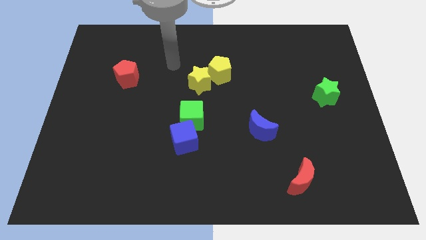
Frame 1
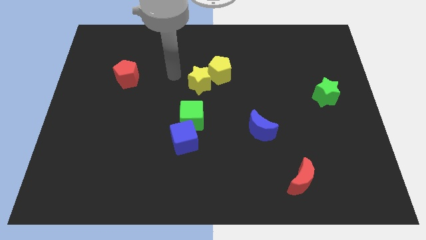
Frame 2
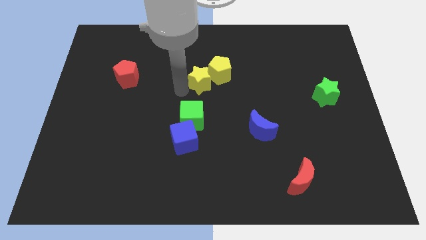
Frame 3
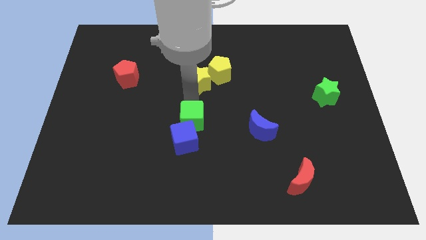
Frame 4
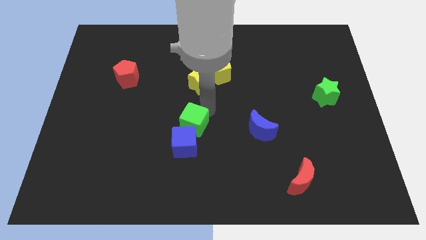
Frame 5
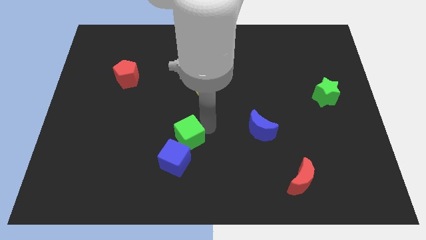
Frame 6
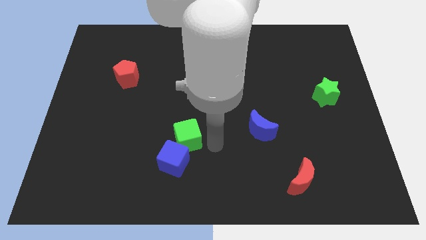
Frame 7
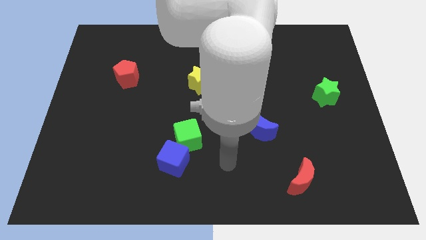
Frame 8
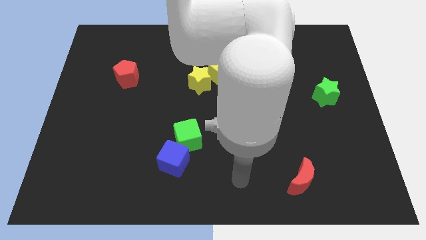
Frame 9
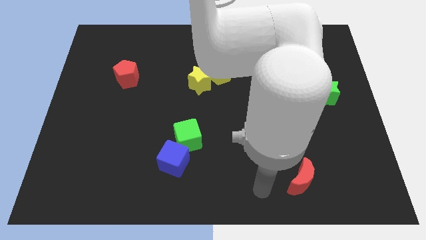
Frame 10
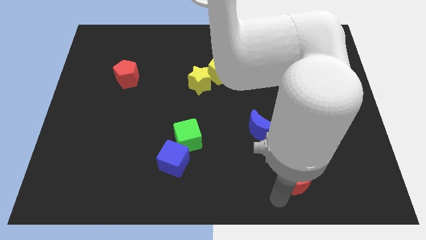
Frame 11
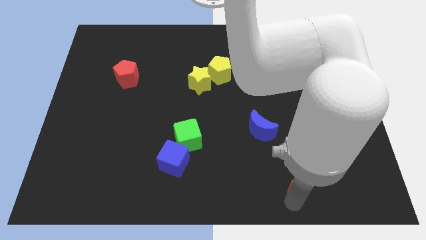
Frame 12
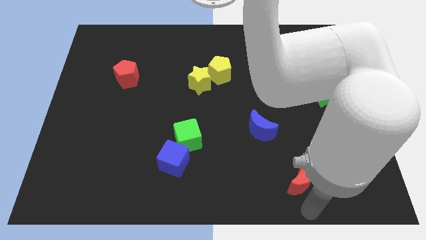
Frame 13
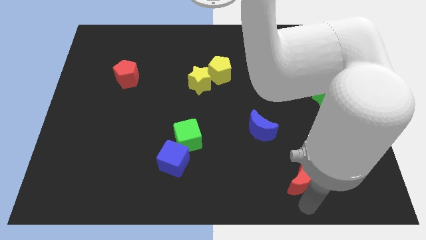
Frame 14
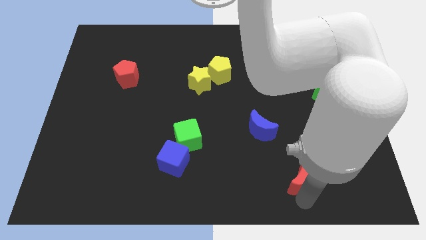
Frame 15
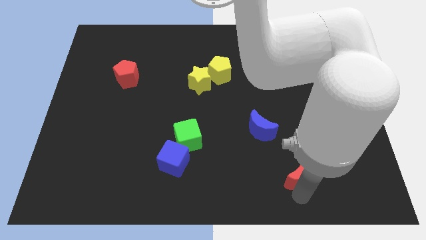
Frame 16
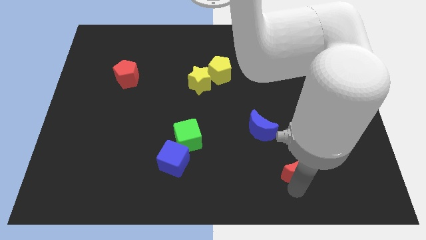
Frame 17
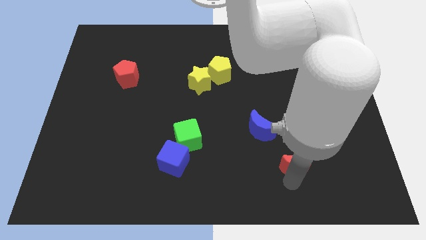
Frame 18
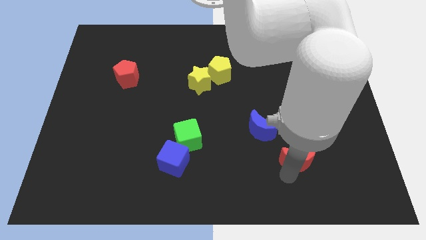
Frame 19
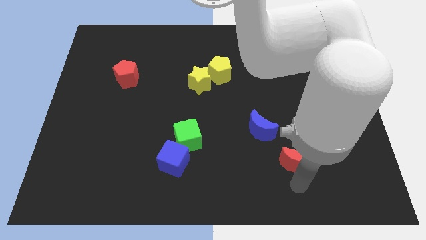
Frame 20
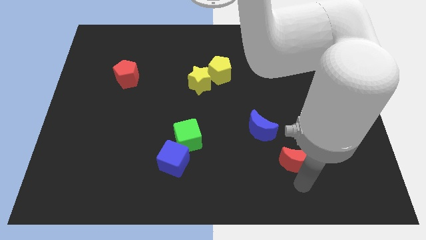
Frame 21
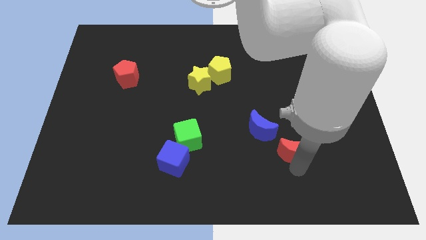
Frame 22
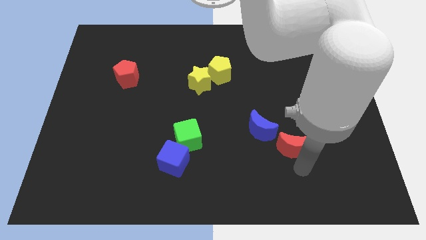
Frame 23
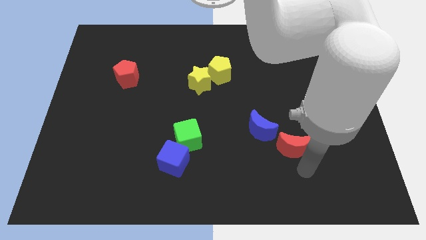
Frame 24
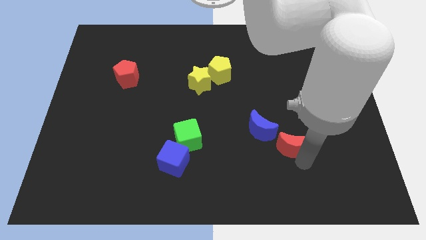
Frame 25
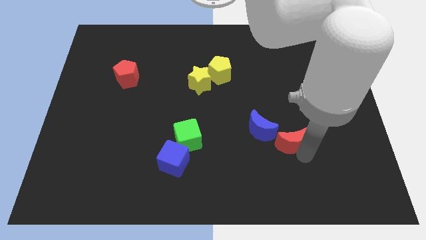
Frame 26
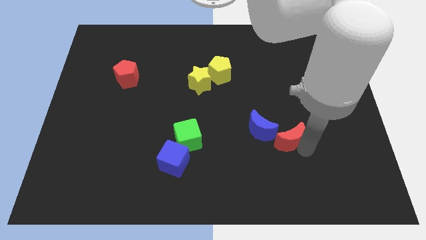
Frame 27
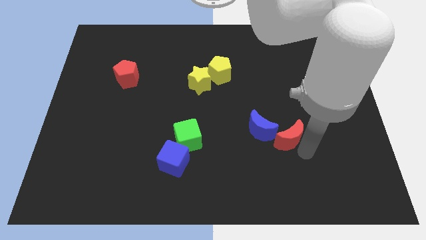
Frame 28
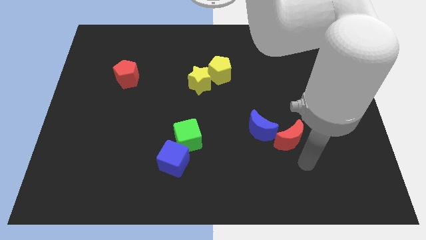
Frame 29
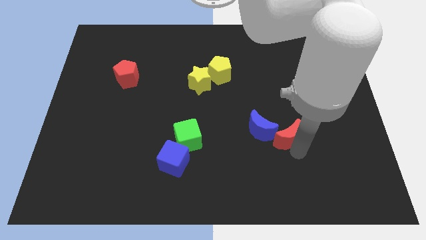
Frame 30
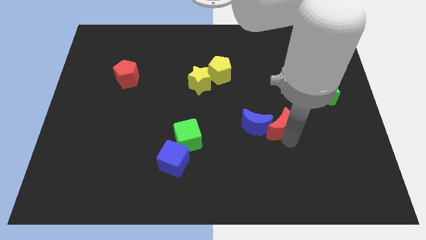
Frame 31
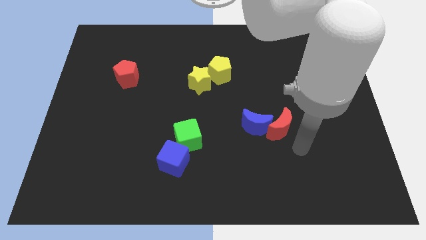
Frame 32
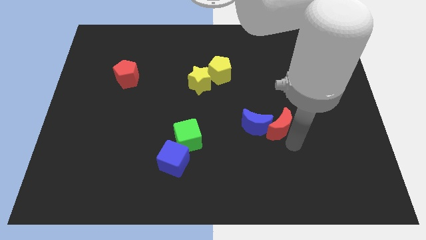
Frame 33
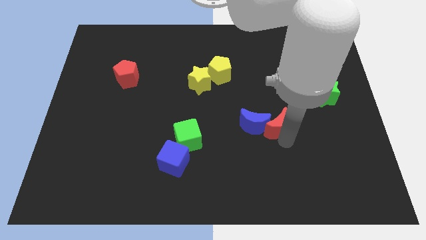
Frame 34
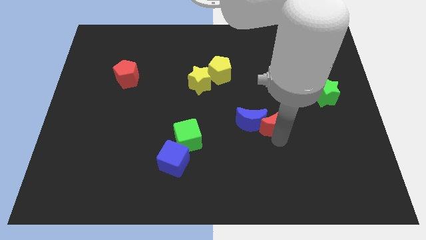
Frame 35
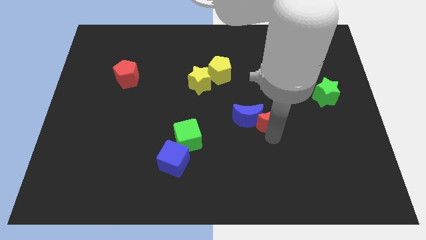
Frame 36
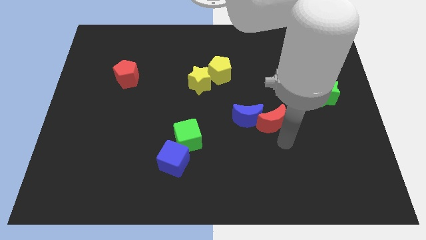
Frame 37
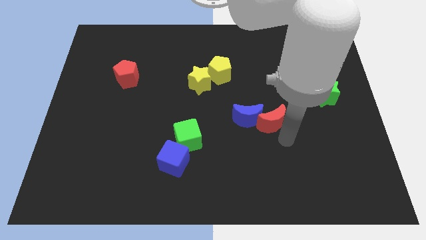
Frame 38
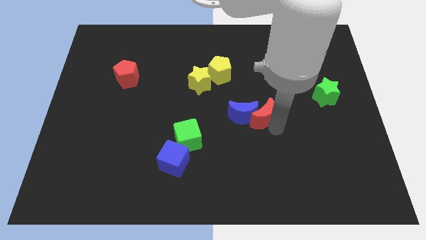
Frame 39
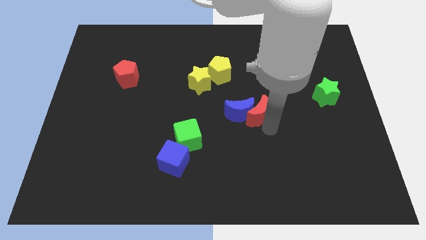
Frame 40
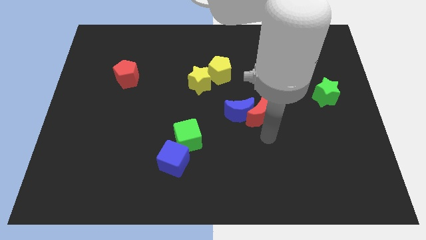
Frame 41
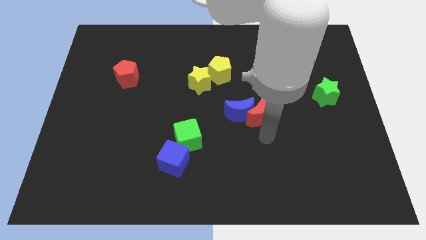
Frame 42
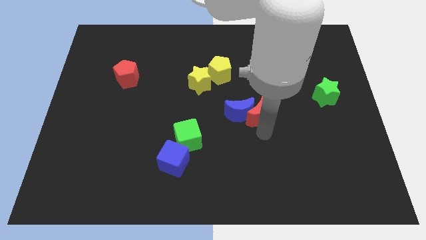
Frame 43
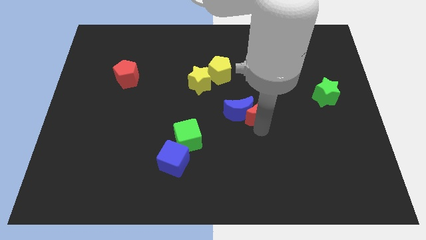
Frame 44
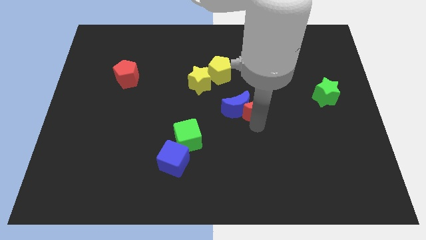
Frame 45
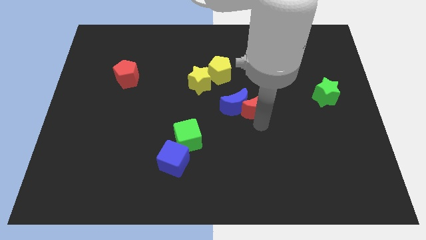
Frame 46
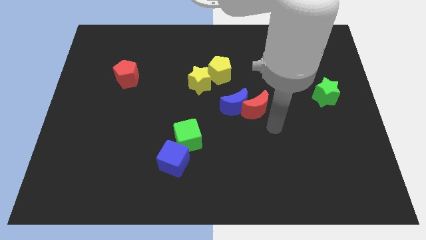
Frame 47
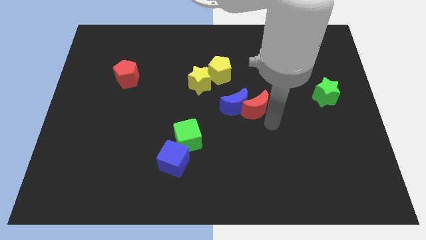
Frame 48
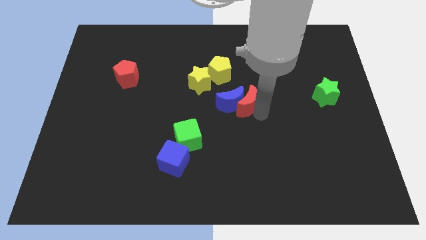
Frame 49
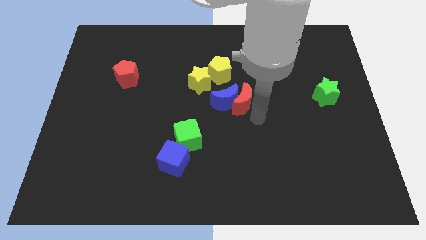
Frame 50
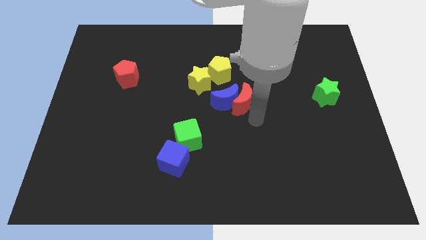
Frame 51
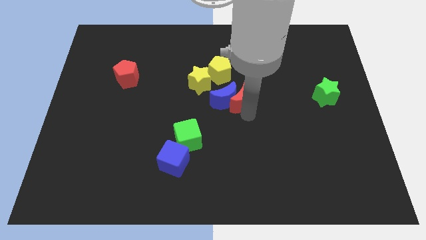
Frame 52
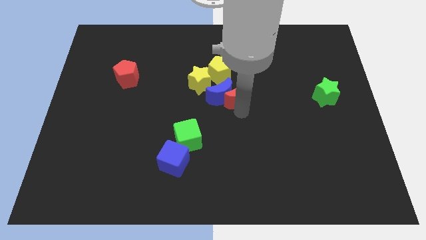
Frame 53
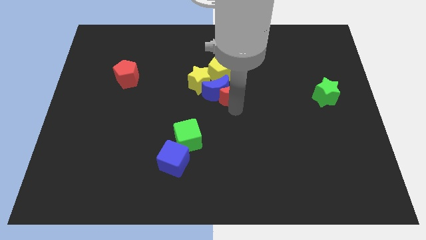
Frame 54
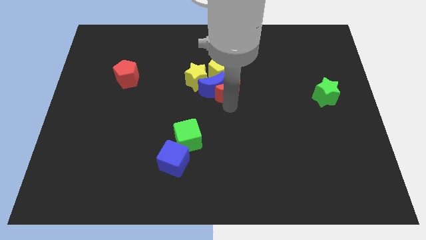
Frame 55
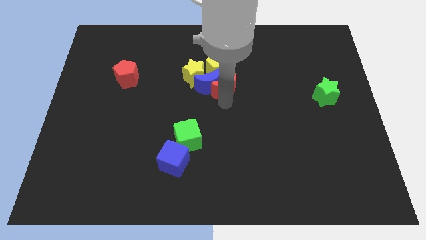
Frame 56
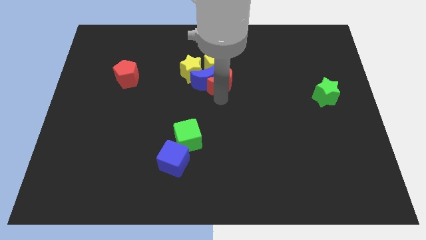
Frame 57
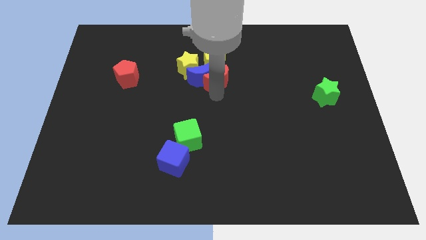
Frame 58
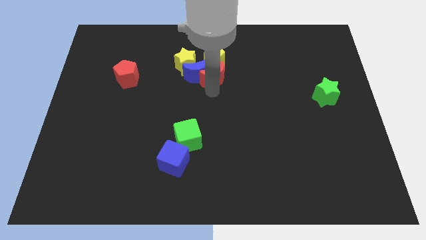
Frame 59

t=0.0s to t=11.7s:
put the red moon to the yellow pentagon

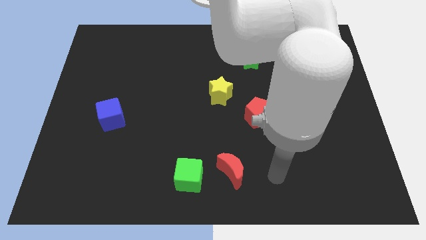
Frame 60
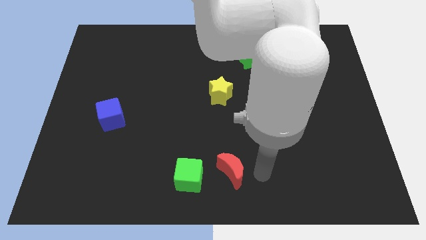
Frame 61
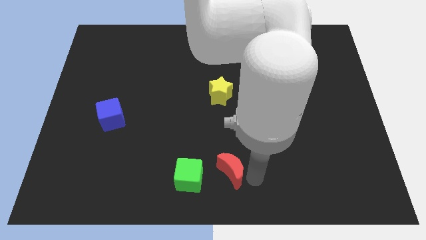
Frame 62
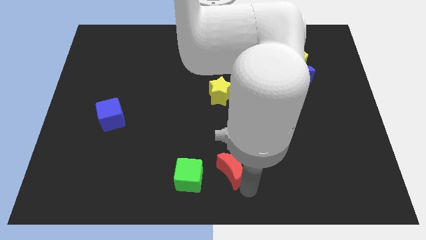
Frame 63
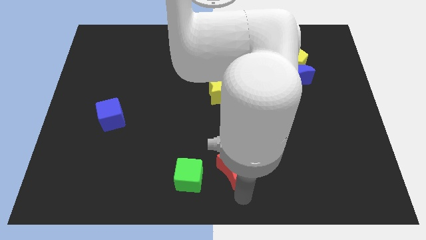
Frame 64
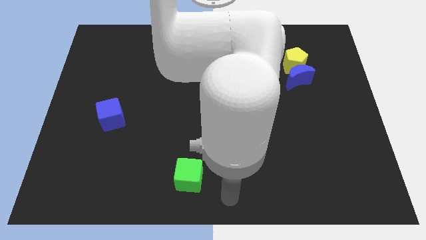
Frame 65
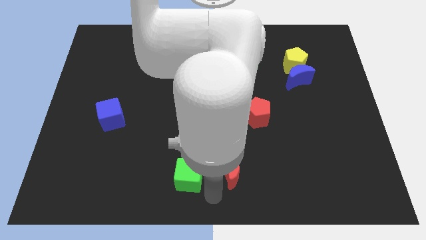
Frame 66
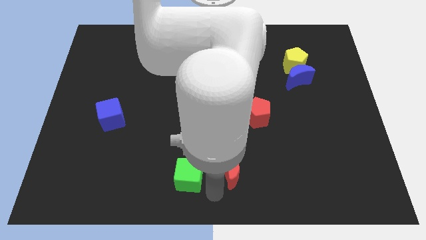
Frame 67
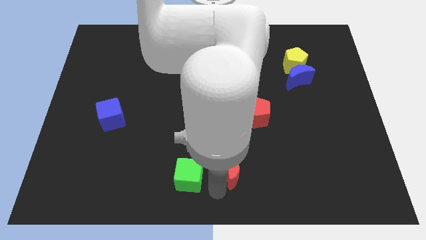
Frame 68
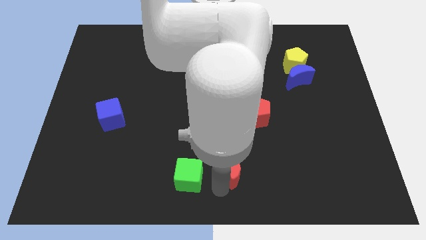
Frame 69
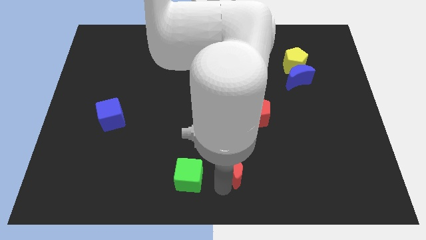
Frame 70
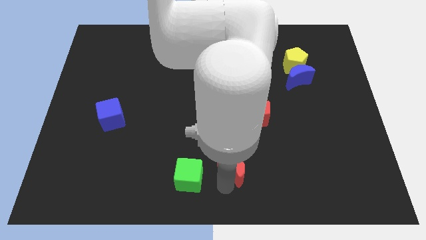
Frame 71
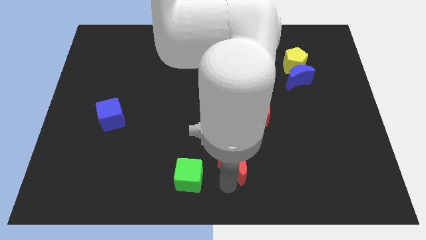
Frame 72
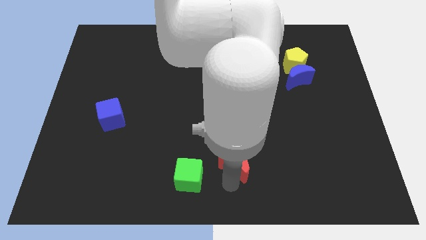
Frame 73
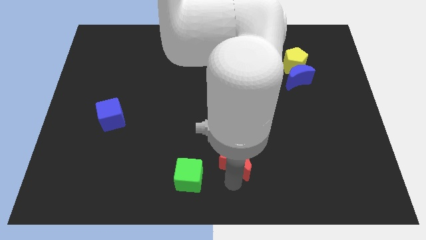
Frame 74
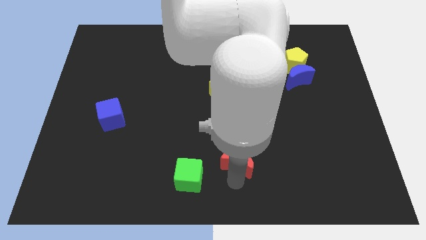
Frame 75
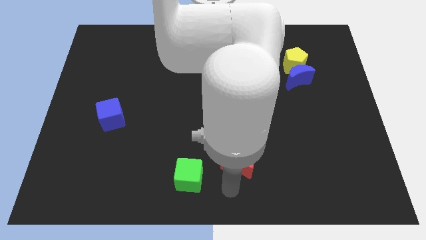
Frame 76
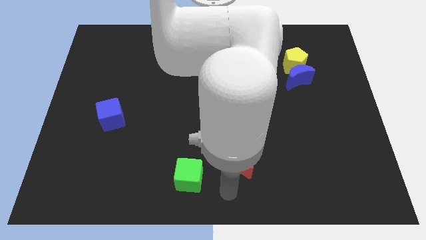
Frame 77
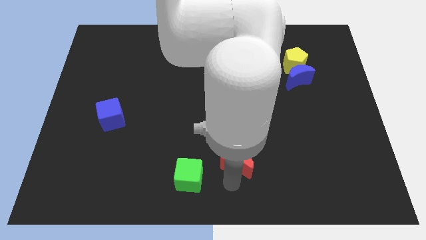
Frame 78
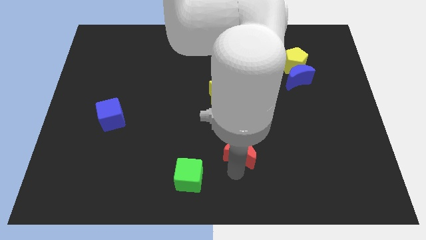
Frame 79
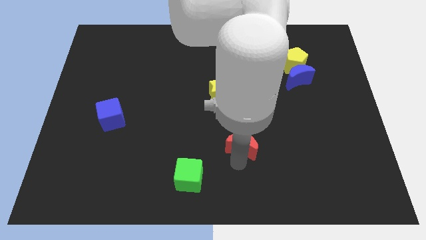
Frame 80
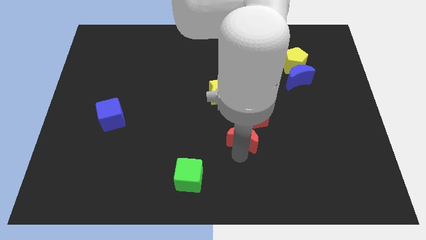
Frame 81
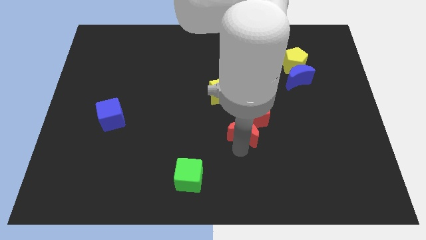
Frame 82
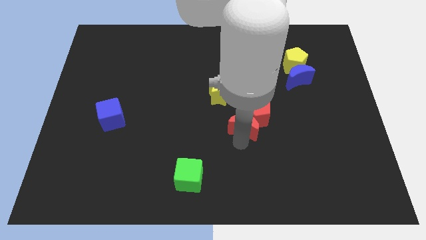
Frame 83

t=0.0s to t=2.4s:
slide the red moon next to the red pentagon
